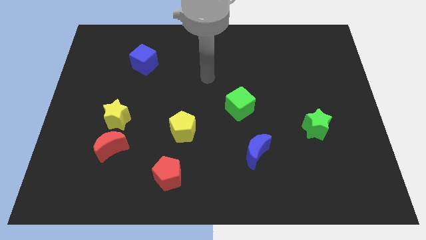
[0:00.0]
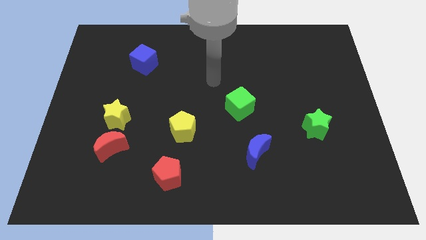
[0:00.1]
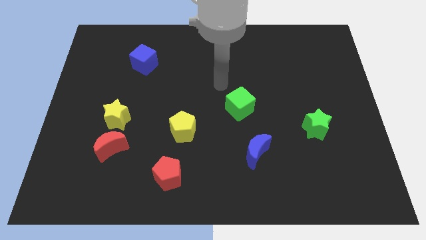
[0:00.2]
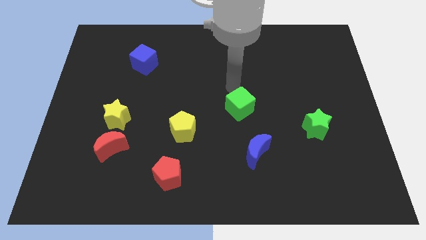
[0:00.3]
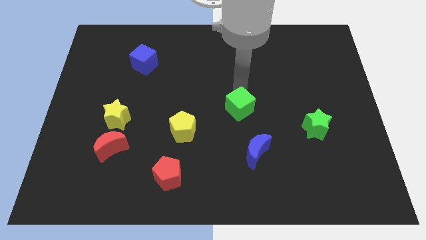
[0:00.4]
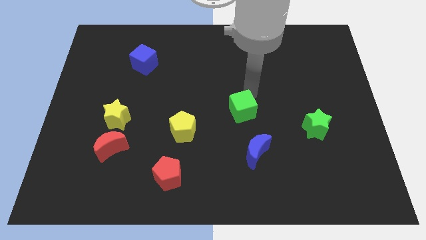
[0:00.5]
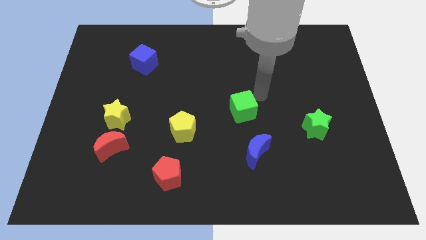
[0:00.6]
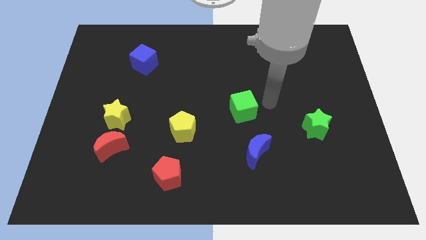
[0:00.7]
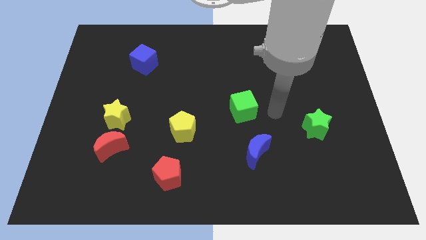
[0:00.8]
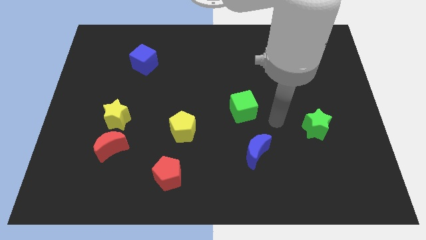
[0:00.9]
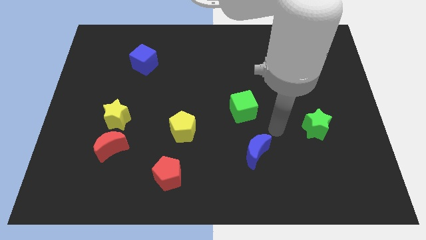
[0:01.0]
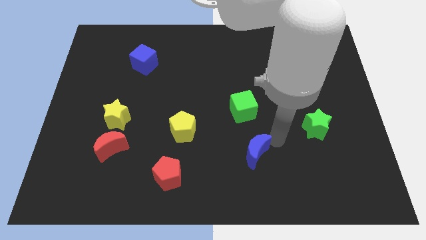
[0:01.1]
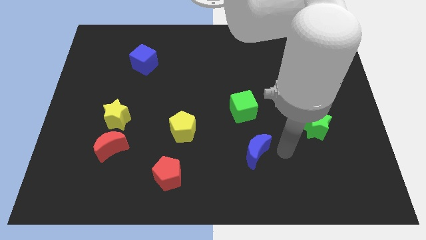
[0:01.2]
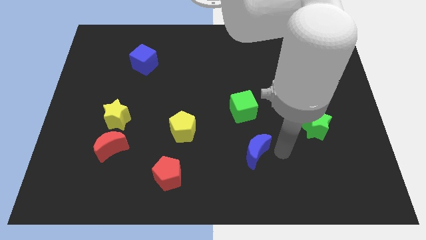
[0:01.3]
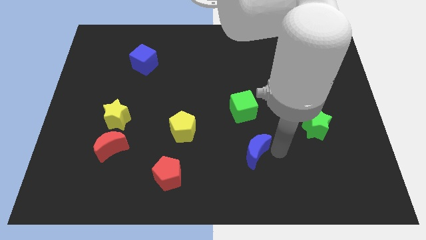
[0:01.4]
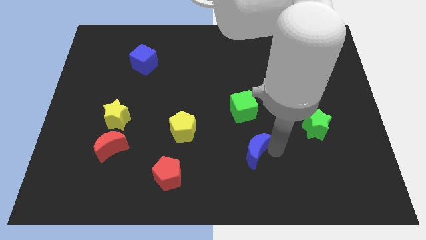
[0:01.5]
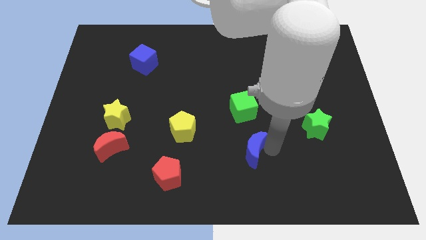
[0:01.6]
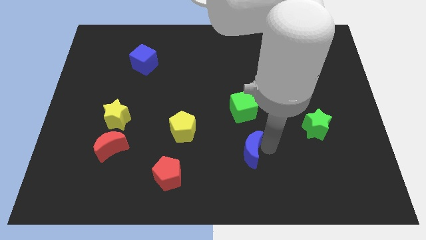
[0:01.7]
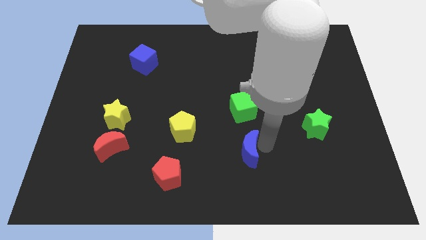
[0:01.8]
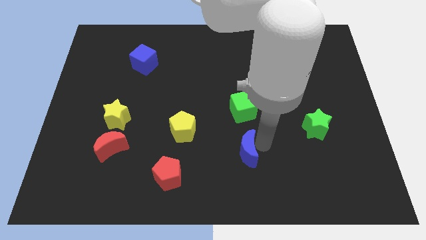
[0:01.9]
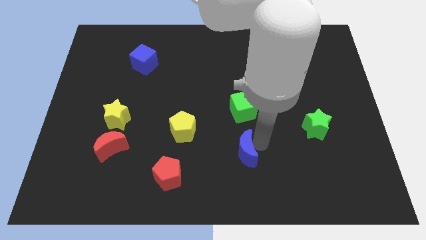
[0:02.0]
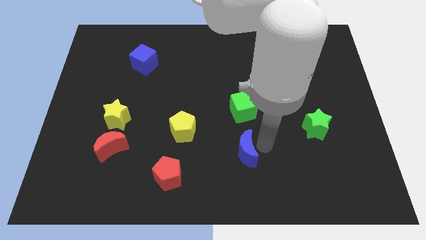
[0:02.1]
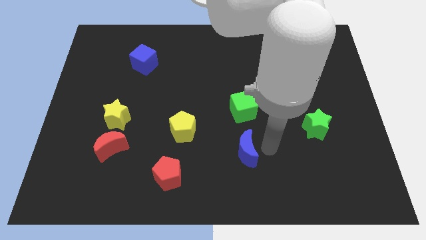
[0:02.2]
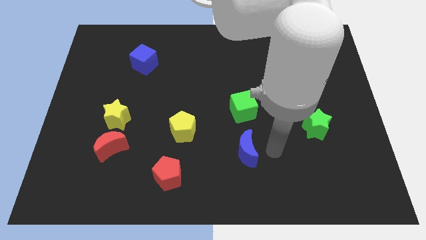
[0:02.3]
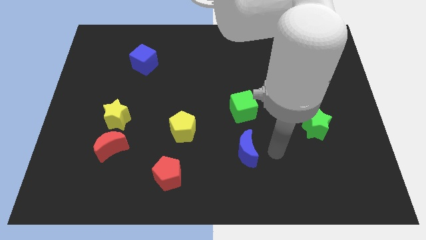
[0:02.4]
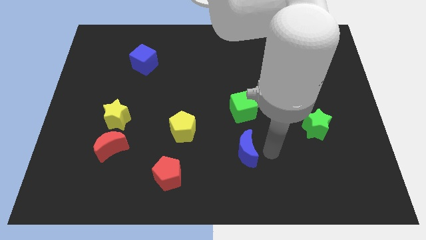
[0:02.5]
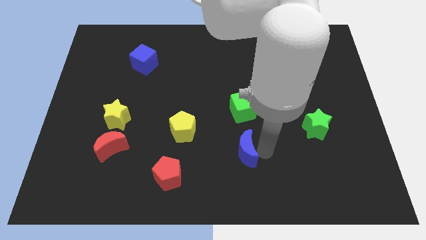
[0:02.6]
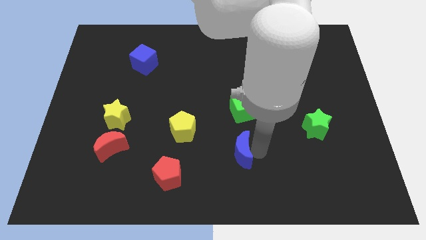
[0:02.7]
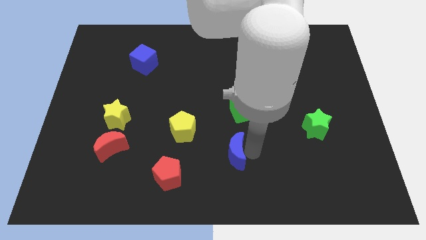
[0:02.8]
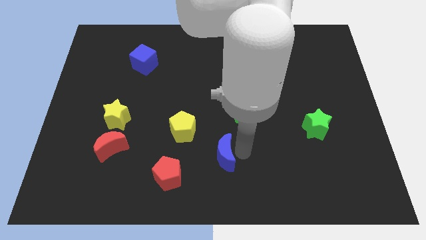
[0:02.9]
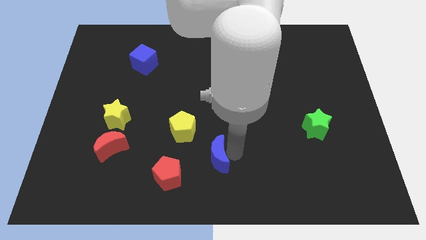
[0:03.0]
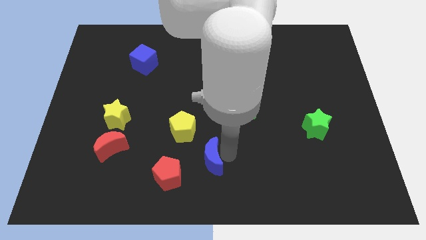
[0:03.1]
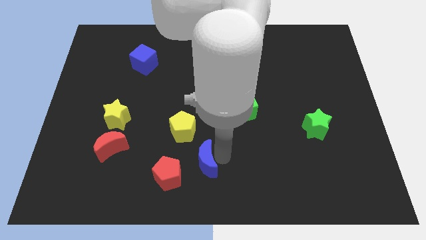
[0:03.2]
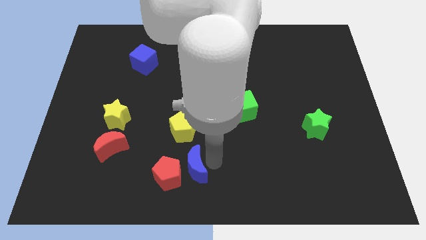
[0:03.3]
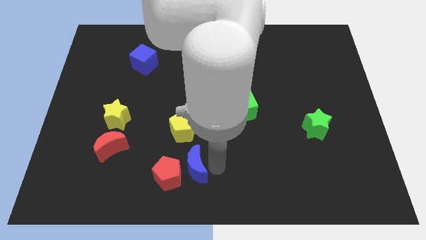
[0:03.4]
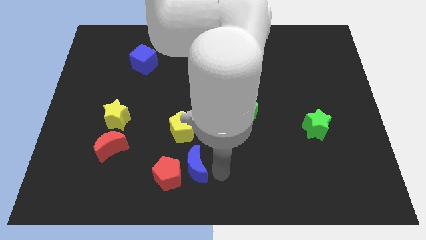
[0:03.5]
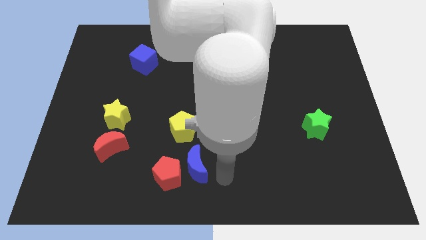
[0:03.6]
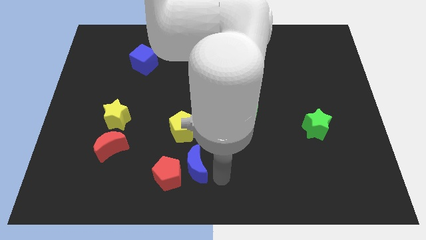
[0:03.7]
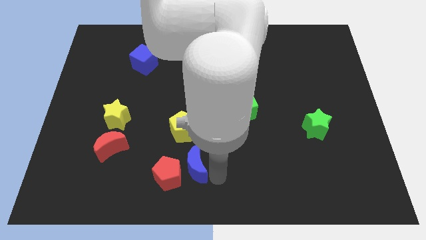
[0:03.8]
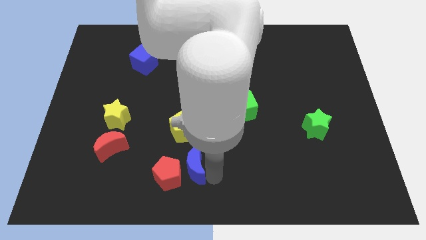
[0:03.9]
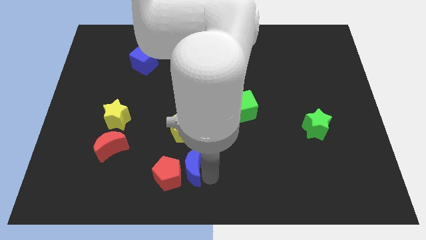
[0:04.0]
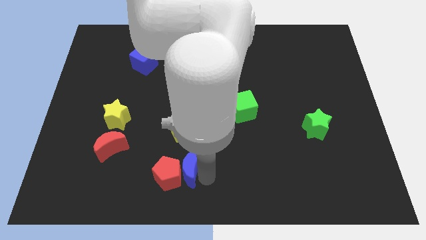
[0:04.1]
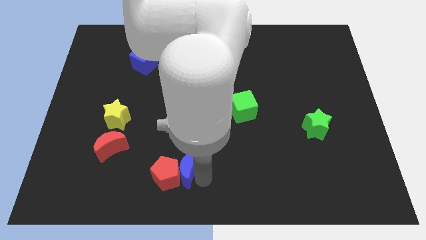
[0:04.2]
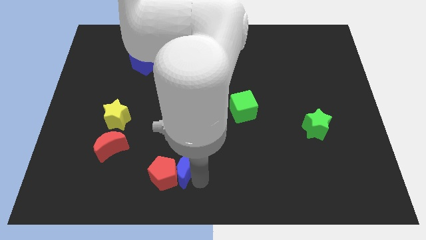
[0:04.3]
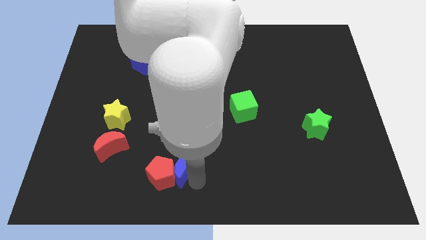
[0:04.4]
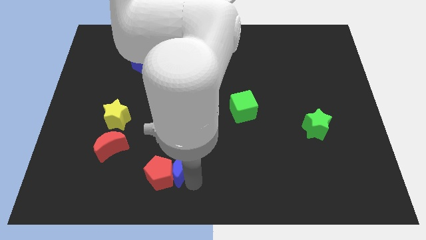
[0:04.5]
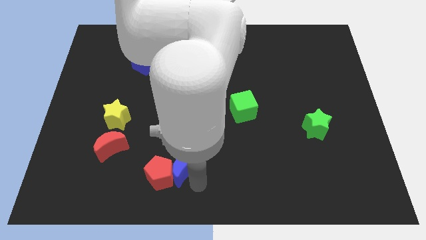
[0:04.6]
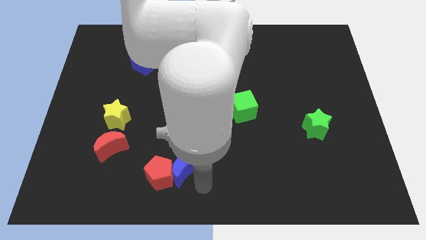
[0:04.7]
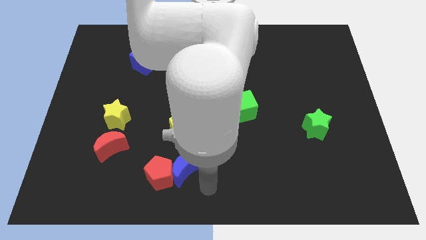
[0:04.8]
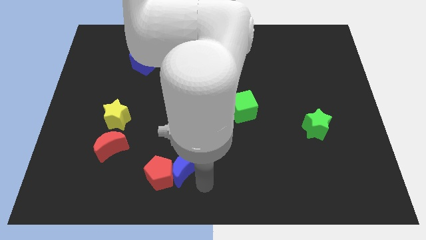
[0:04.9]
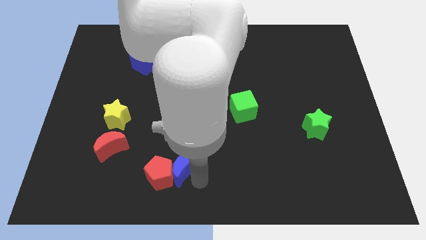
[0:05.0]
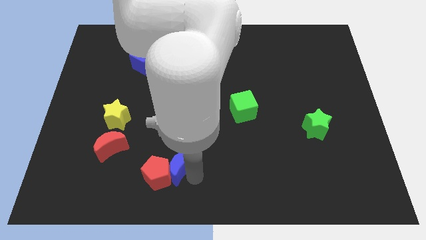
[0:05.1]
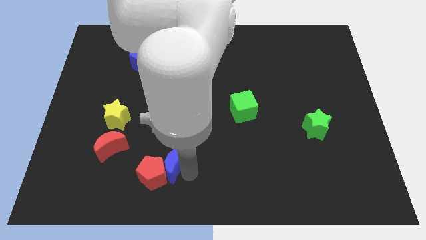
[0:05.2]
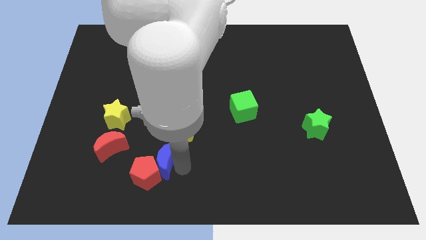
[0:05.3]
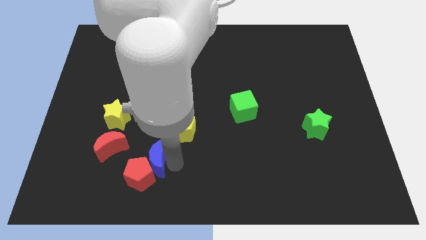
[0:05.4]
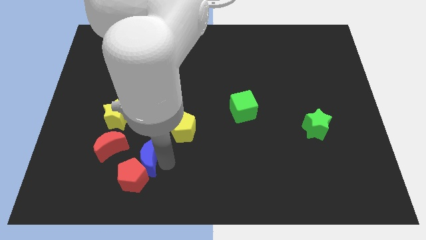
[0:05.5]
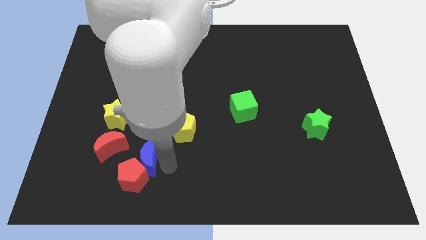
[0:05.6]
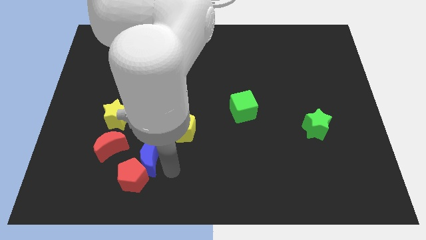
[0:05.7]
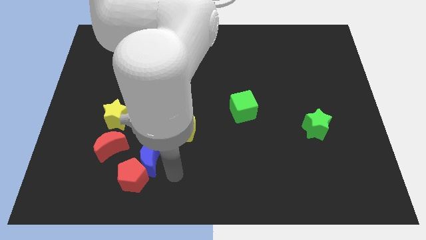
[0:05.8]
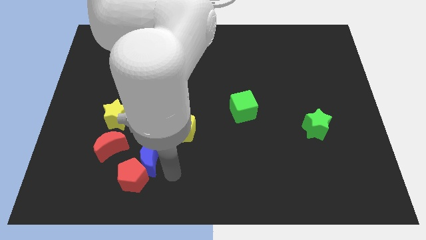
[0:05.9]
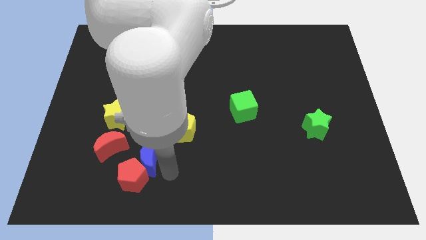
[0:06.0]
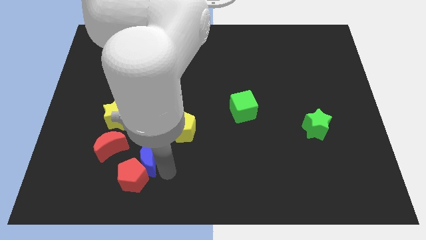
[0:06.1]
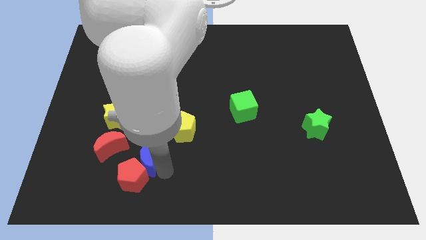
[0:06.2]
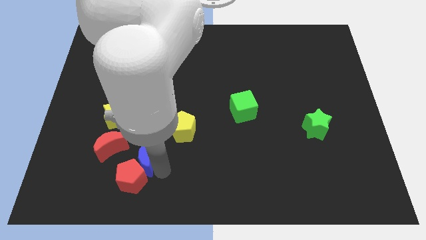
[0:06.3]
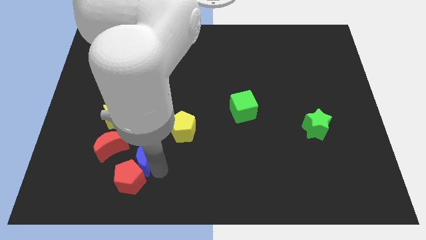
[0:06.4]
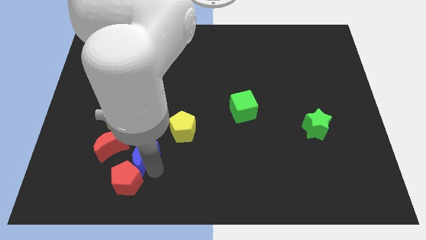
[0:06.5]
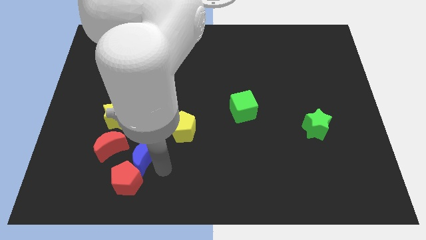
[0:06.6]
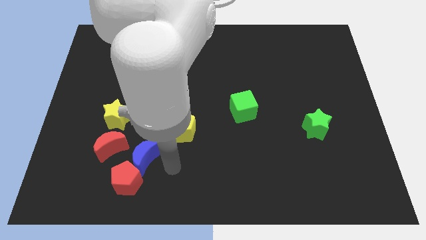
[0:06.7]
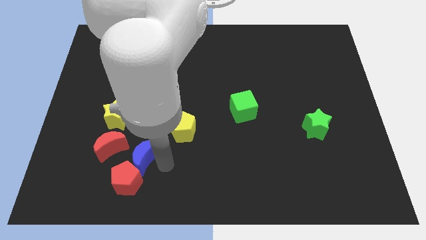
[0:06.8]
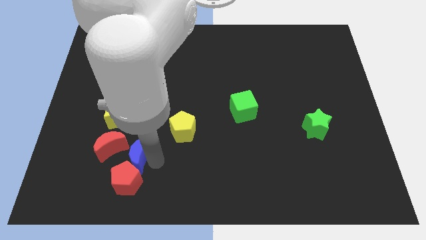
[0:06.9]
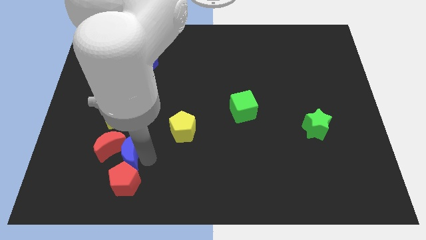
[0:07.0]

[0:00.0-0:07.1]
put the blue moon next to the red moon

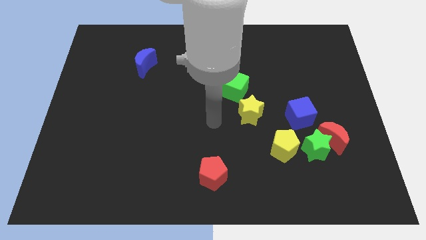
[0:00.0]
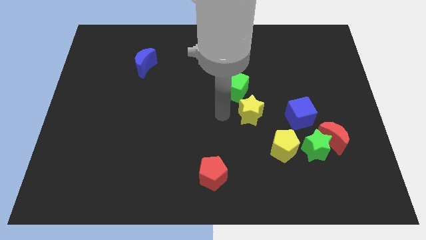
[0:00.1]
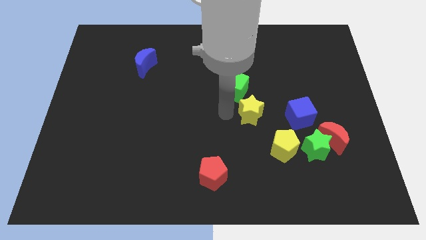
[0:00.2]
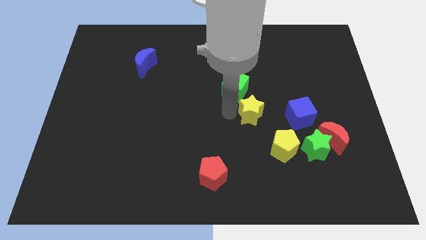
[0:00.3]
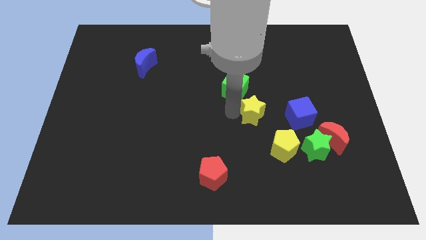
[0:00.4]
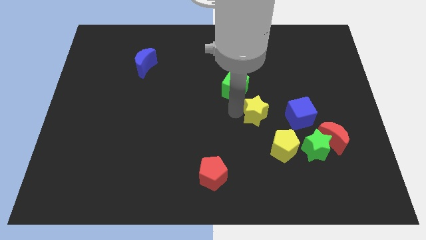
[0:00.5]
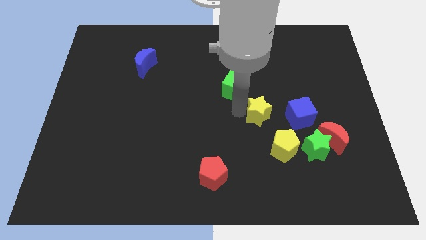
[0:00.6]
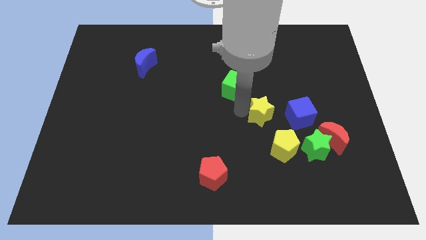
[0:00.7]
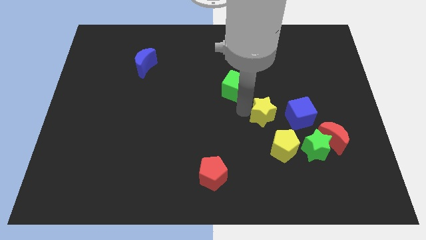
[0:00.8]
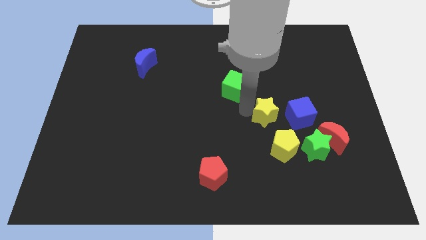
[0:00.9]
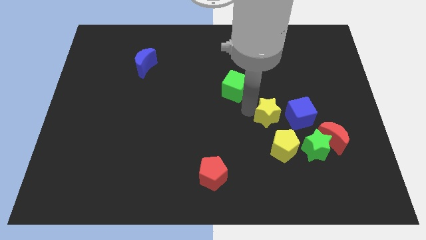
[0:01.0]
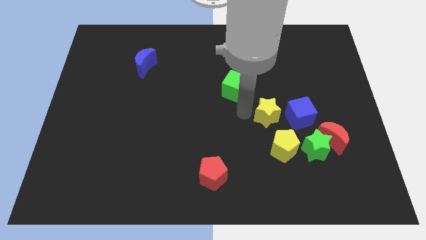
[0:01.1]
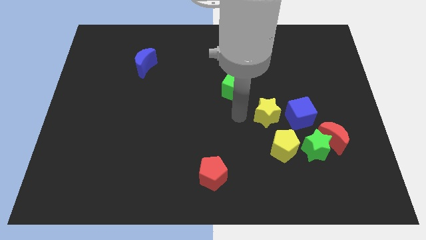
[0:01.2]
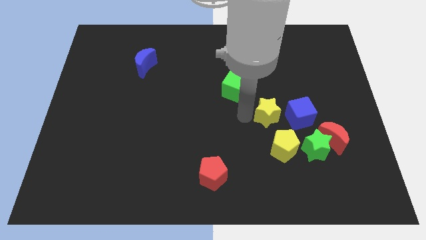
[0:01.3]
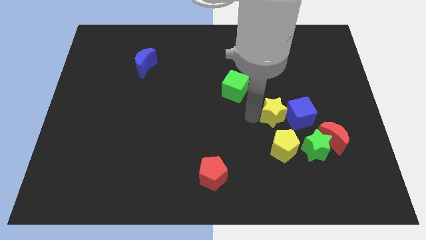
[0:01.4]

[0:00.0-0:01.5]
slide the yellow star next to the blue cube
